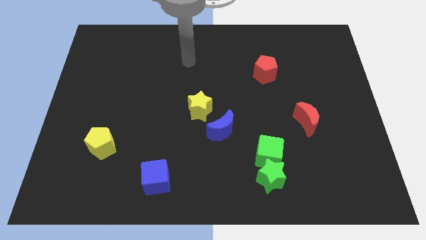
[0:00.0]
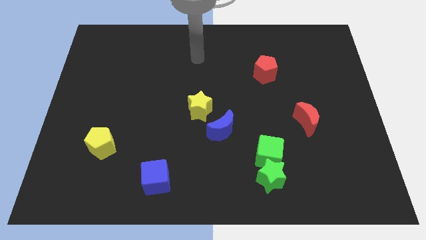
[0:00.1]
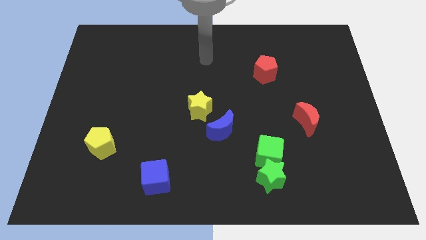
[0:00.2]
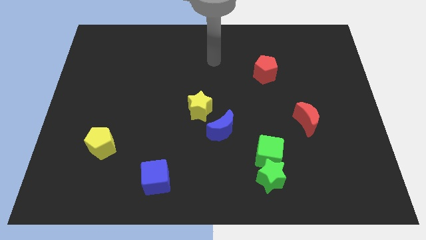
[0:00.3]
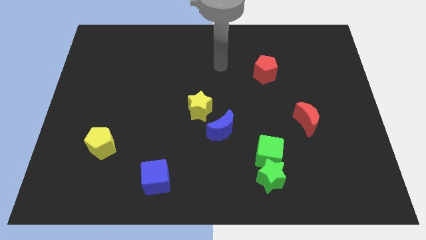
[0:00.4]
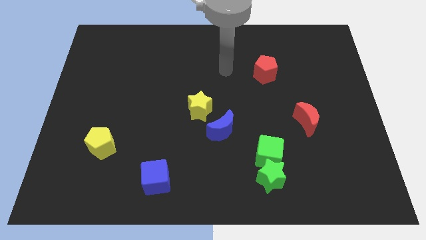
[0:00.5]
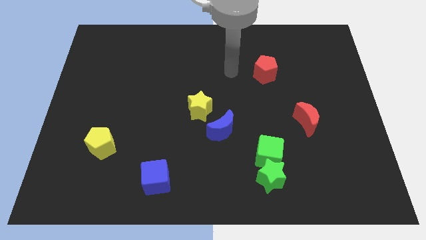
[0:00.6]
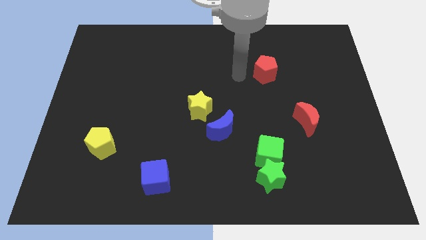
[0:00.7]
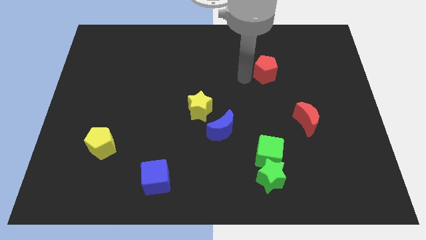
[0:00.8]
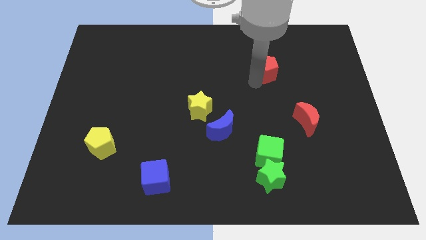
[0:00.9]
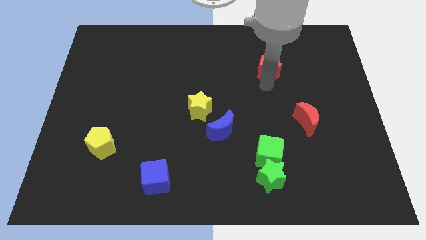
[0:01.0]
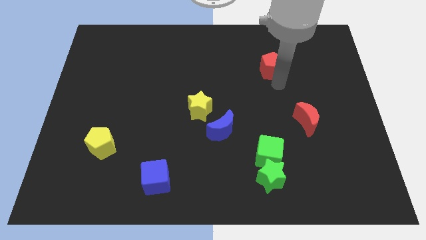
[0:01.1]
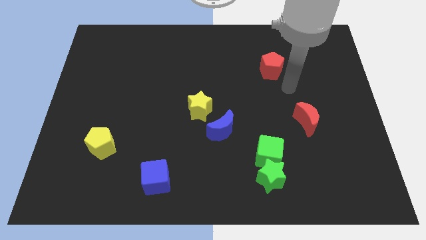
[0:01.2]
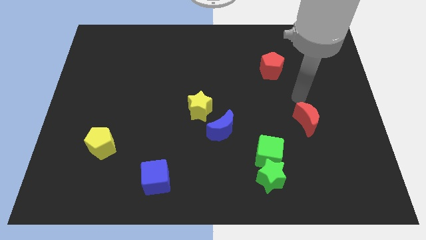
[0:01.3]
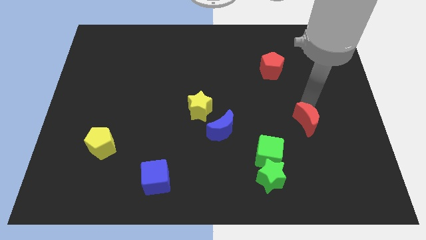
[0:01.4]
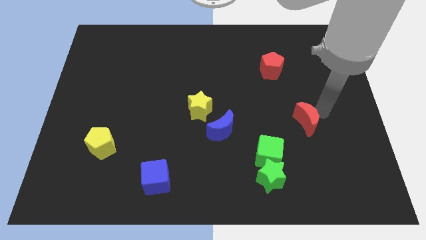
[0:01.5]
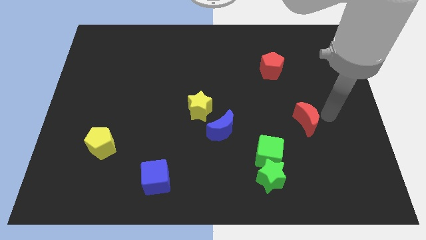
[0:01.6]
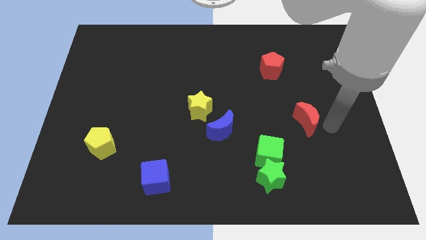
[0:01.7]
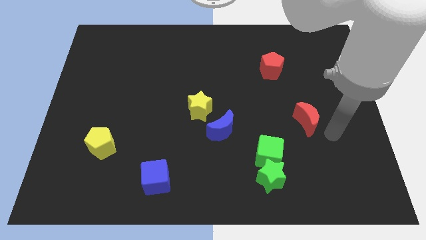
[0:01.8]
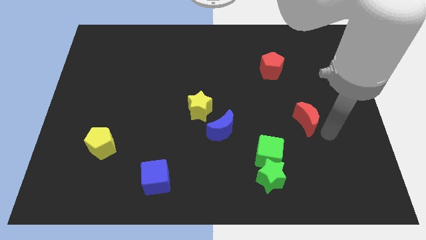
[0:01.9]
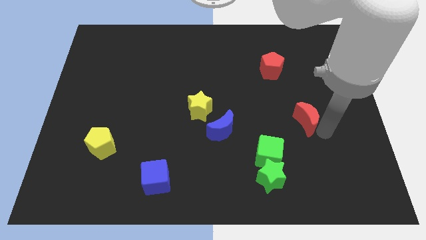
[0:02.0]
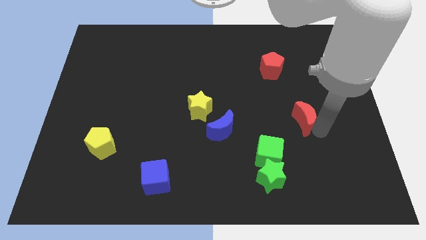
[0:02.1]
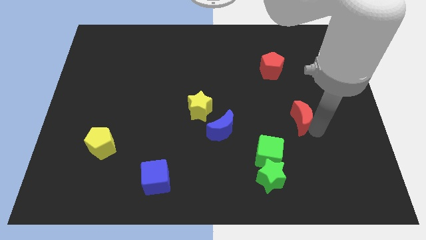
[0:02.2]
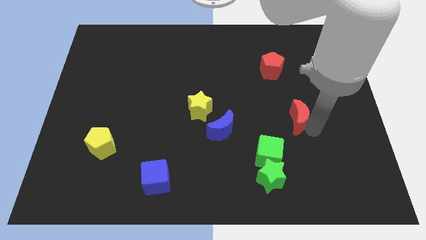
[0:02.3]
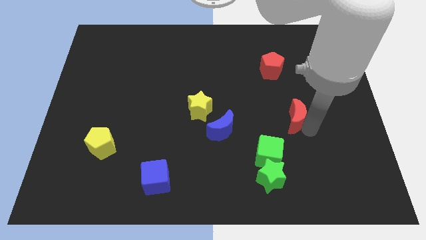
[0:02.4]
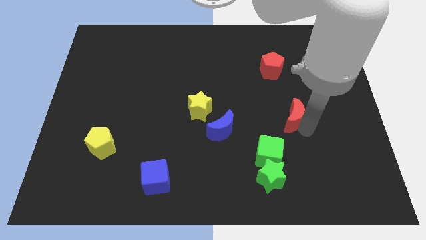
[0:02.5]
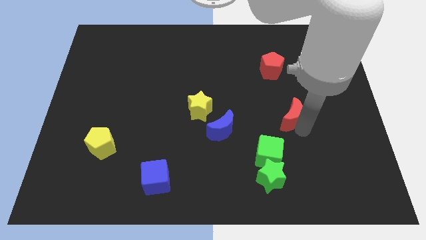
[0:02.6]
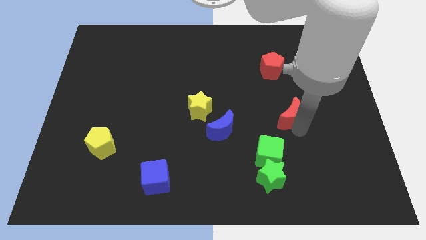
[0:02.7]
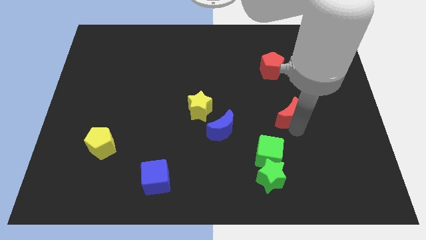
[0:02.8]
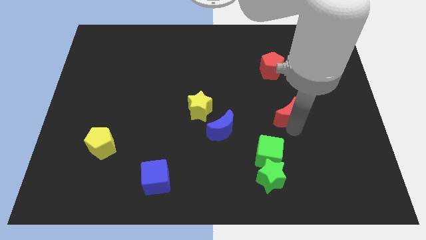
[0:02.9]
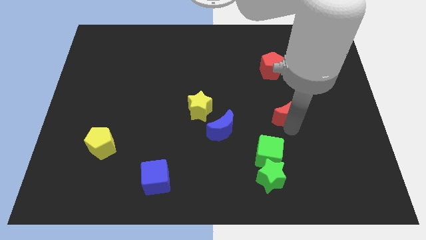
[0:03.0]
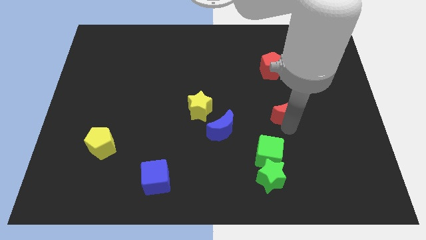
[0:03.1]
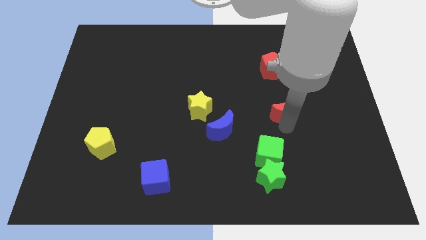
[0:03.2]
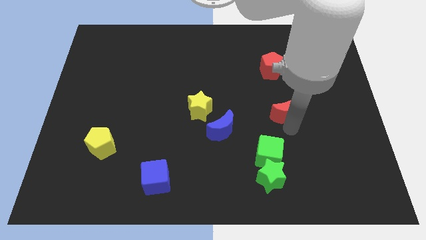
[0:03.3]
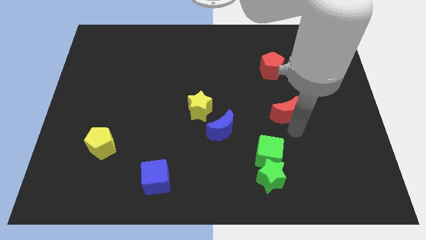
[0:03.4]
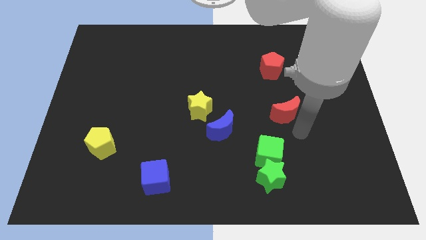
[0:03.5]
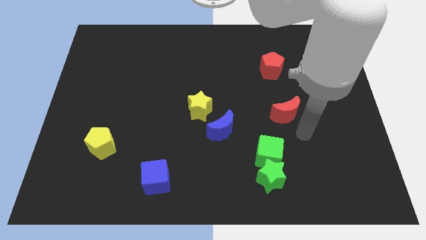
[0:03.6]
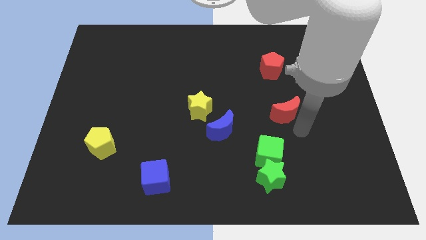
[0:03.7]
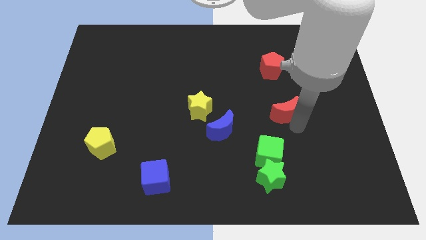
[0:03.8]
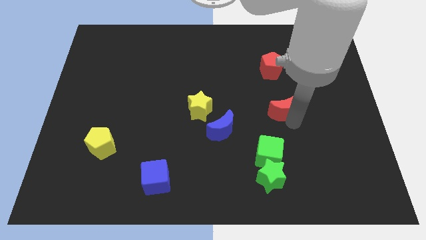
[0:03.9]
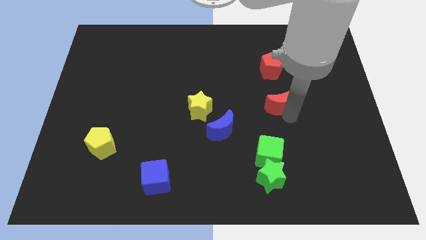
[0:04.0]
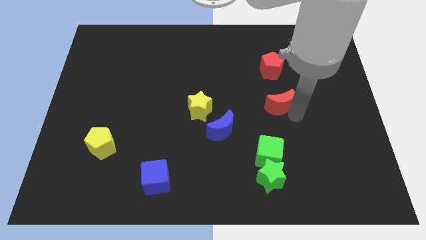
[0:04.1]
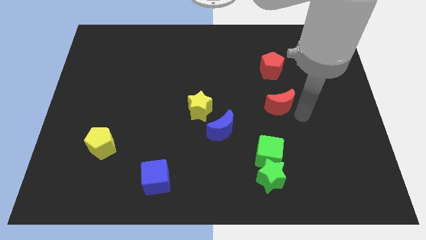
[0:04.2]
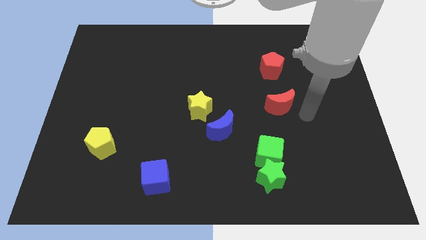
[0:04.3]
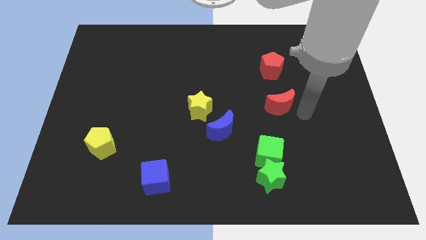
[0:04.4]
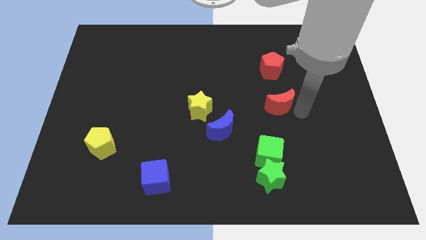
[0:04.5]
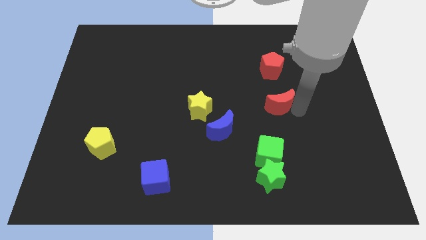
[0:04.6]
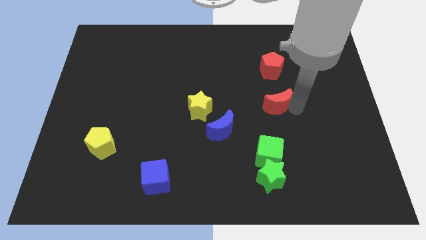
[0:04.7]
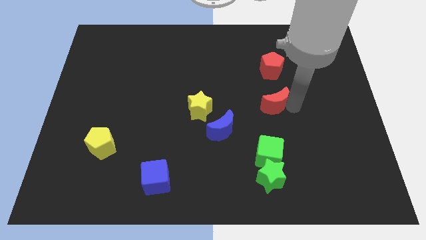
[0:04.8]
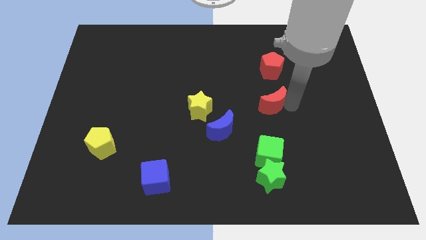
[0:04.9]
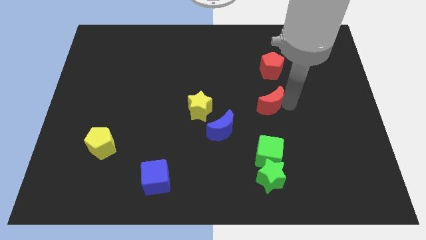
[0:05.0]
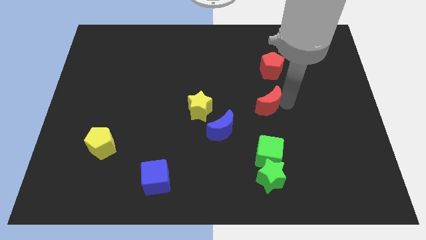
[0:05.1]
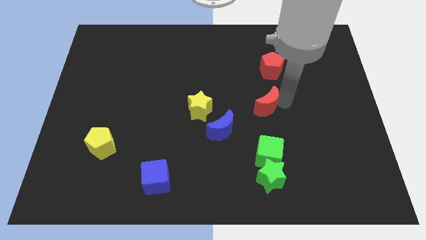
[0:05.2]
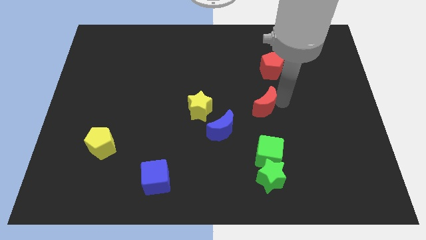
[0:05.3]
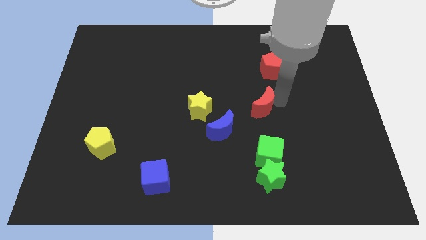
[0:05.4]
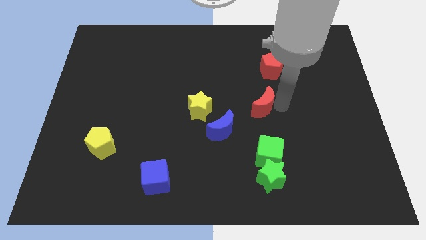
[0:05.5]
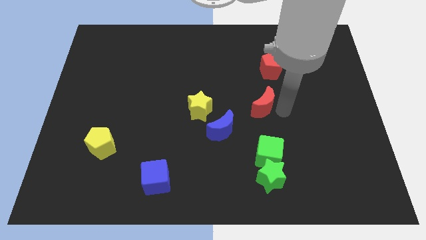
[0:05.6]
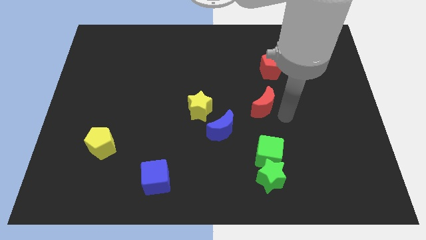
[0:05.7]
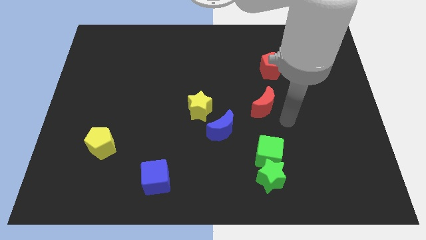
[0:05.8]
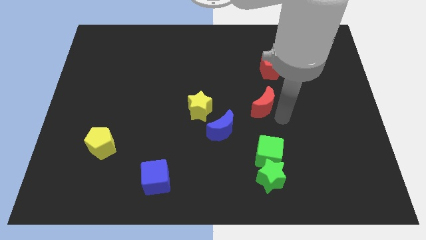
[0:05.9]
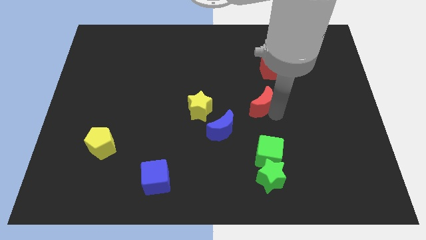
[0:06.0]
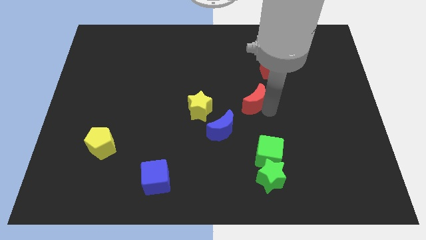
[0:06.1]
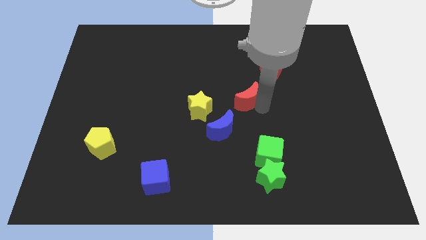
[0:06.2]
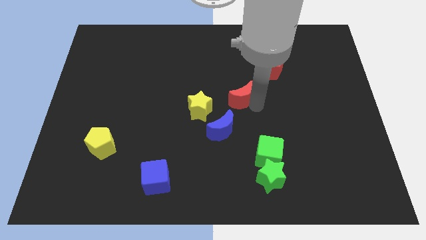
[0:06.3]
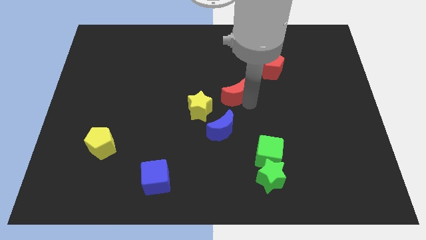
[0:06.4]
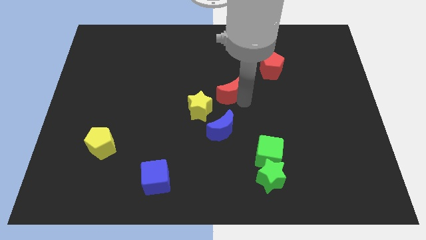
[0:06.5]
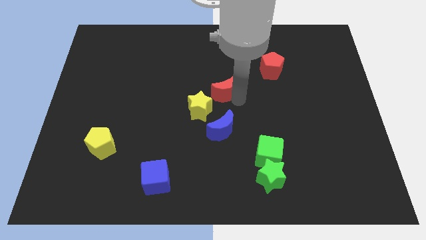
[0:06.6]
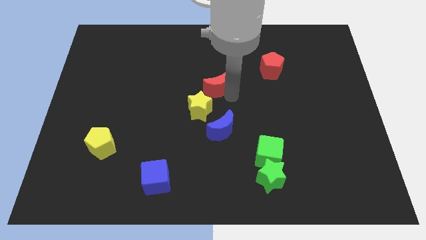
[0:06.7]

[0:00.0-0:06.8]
put the red moon to the top of the yellow star
